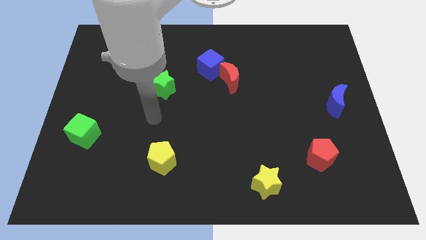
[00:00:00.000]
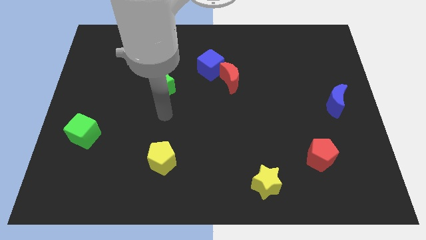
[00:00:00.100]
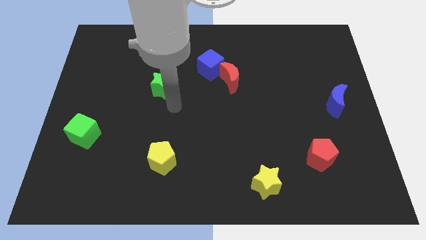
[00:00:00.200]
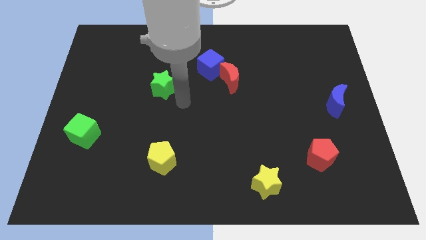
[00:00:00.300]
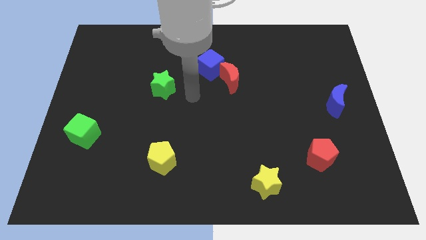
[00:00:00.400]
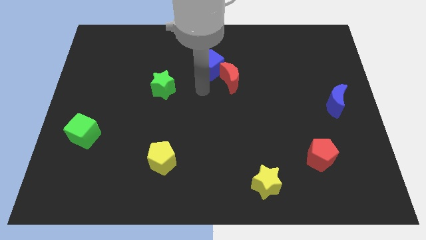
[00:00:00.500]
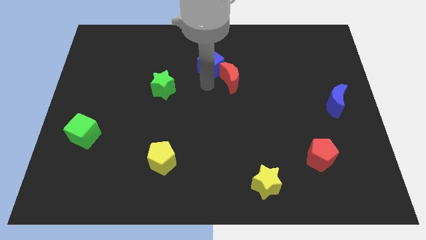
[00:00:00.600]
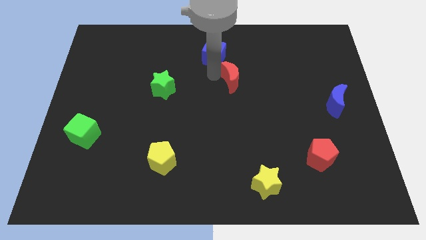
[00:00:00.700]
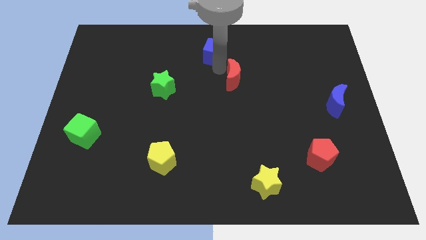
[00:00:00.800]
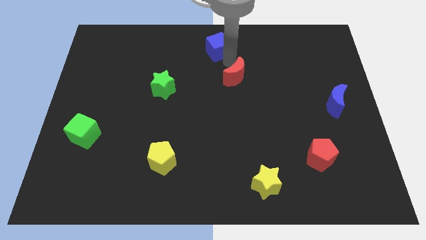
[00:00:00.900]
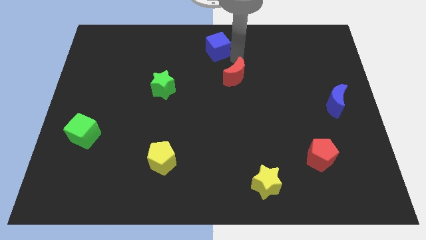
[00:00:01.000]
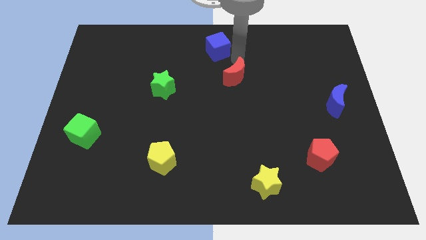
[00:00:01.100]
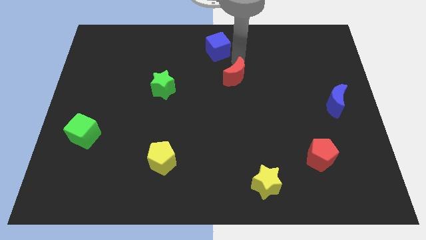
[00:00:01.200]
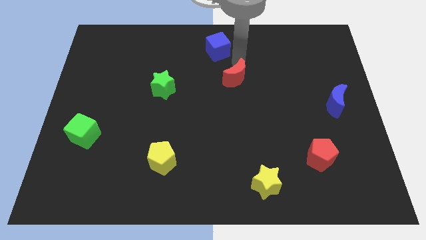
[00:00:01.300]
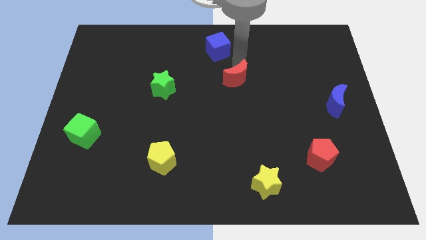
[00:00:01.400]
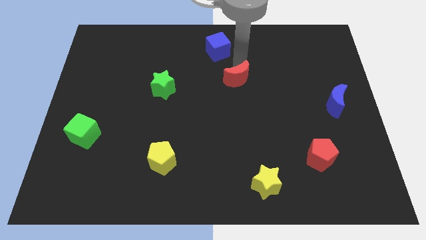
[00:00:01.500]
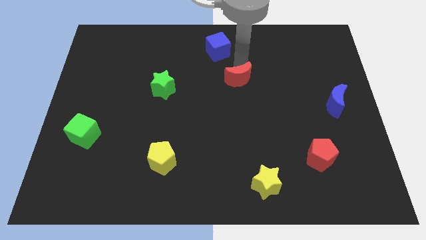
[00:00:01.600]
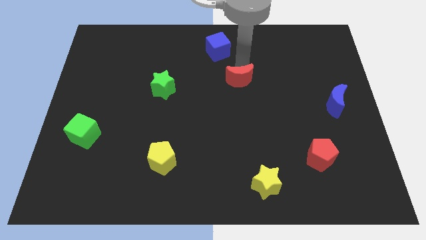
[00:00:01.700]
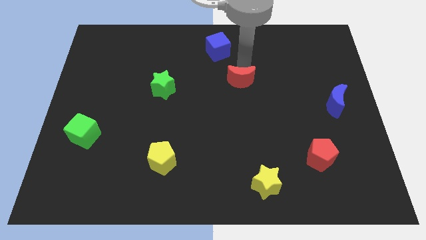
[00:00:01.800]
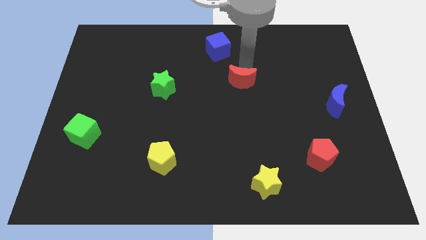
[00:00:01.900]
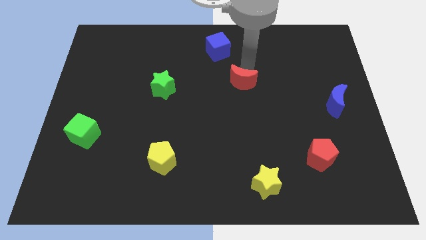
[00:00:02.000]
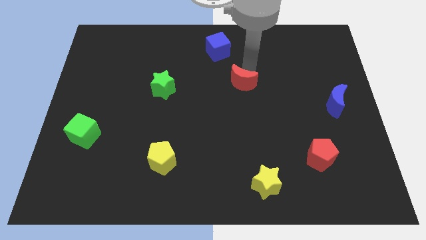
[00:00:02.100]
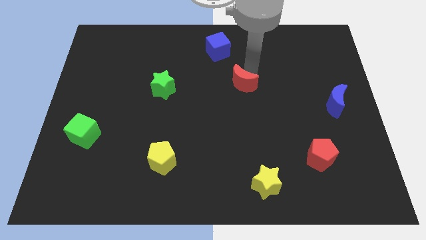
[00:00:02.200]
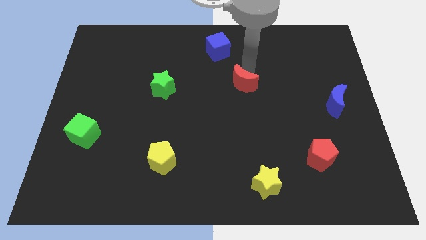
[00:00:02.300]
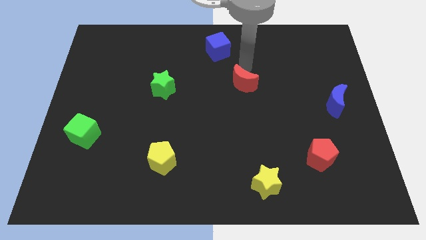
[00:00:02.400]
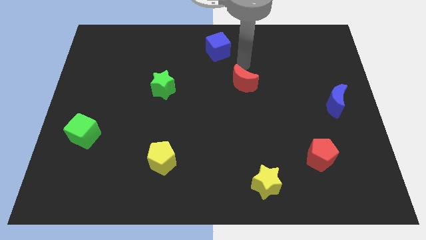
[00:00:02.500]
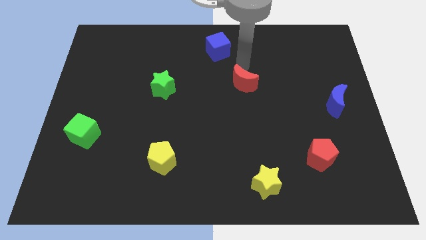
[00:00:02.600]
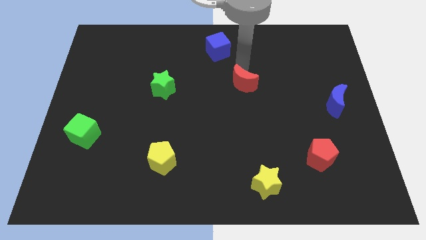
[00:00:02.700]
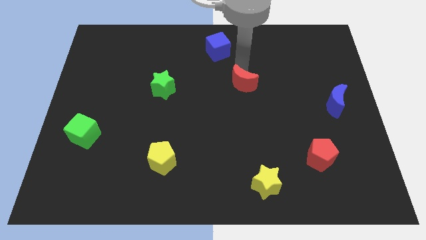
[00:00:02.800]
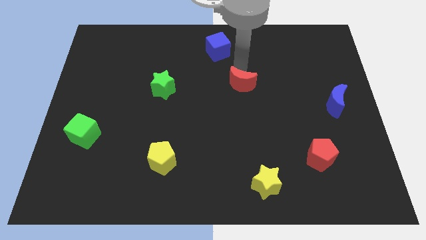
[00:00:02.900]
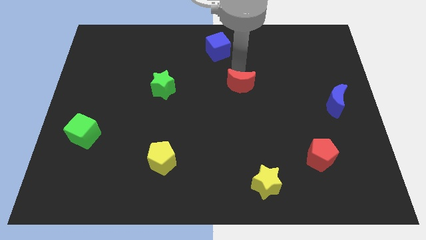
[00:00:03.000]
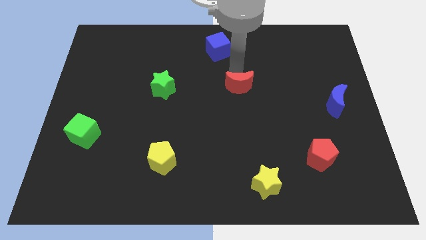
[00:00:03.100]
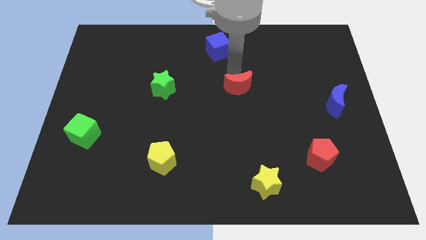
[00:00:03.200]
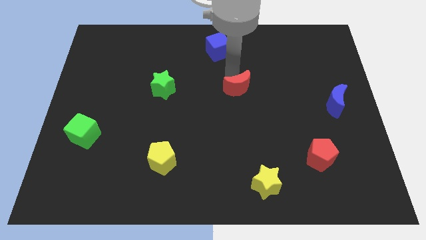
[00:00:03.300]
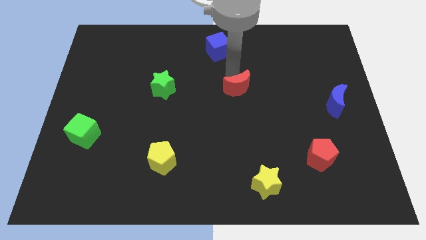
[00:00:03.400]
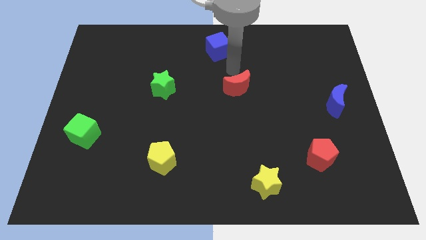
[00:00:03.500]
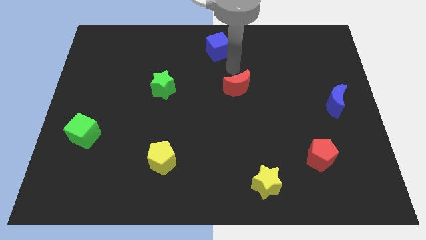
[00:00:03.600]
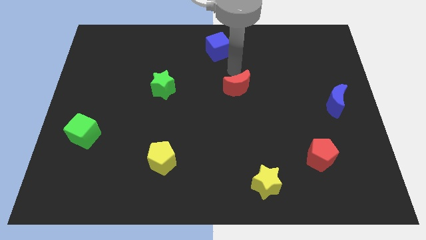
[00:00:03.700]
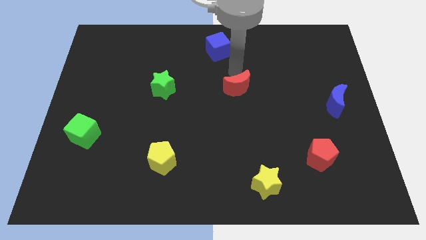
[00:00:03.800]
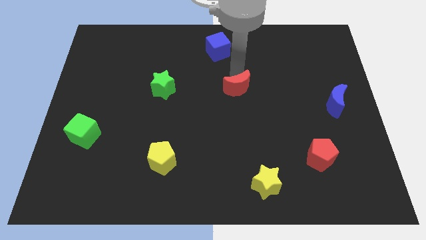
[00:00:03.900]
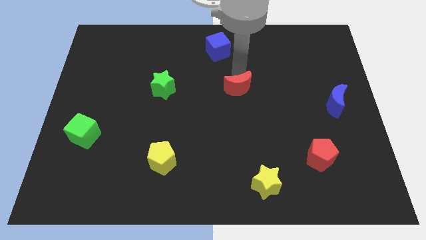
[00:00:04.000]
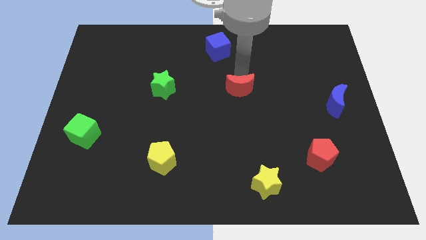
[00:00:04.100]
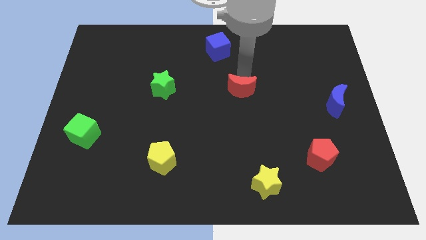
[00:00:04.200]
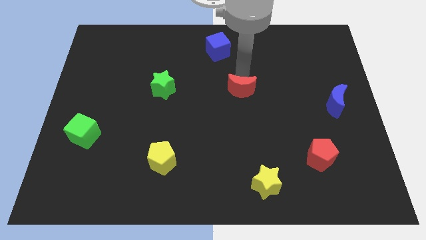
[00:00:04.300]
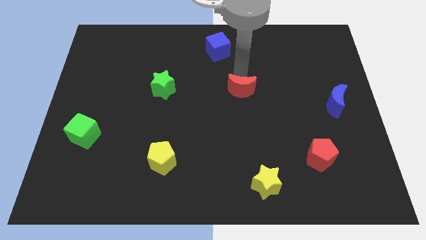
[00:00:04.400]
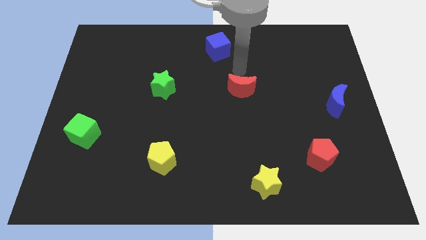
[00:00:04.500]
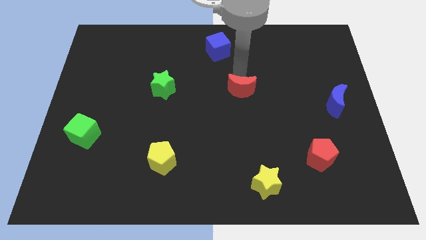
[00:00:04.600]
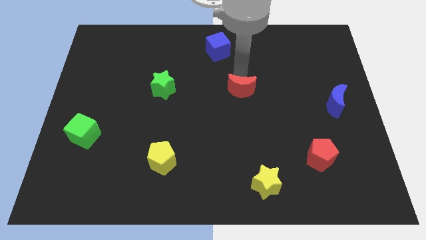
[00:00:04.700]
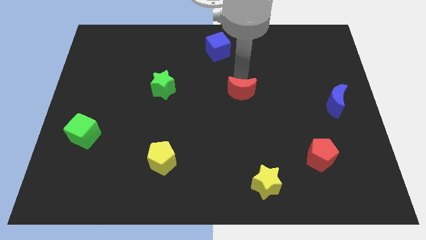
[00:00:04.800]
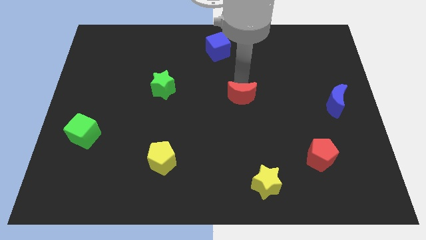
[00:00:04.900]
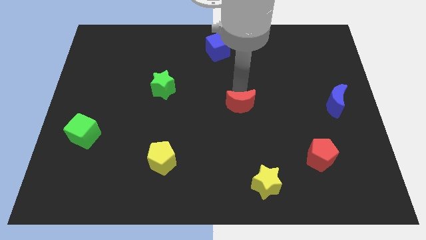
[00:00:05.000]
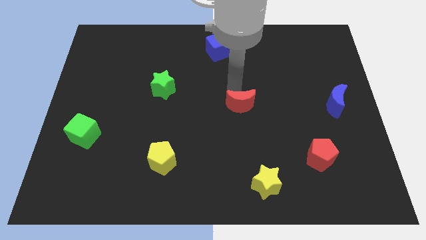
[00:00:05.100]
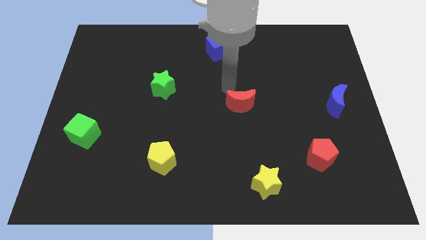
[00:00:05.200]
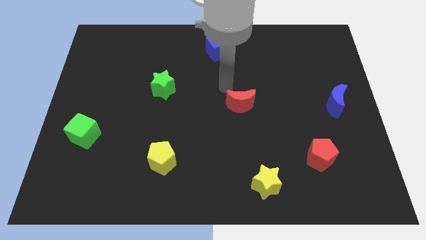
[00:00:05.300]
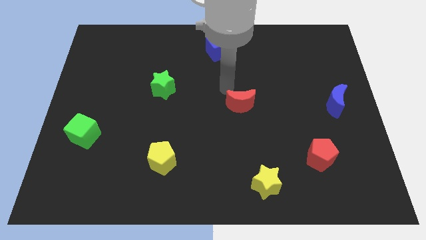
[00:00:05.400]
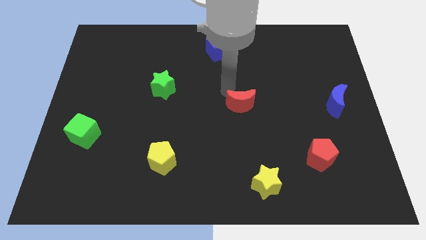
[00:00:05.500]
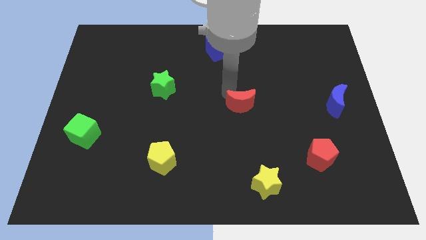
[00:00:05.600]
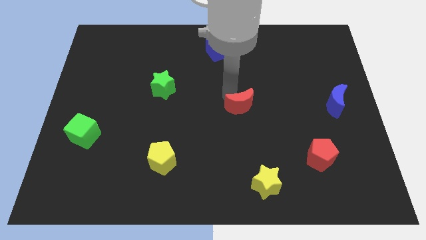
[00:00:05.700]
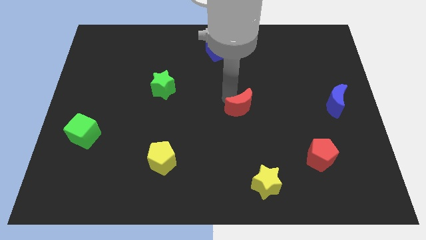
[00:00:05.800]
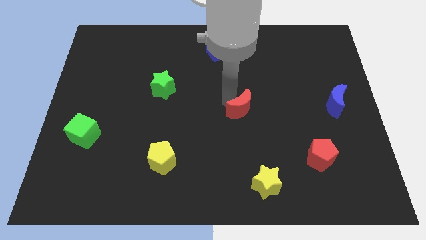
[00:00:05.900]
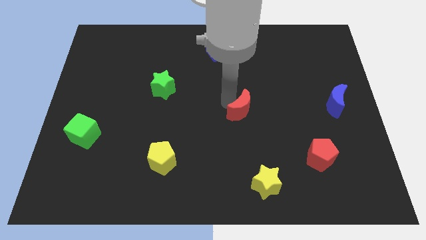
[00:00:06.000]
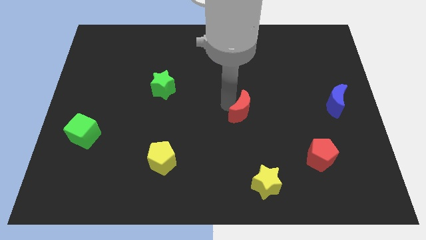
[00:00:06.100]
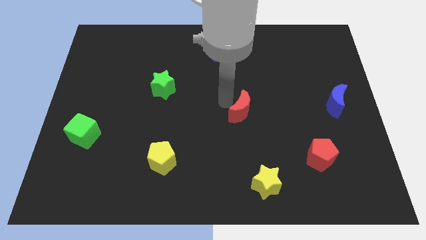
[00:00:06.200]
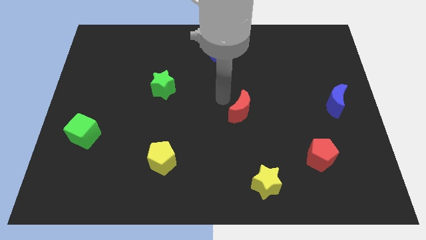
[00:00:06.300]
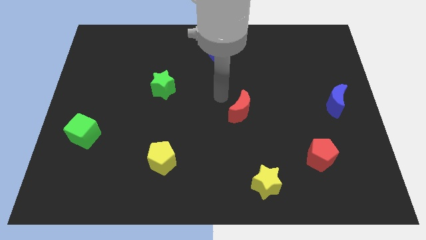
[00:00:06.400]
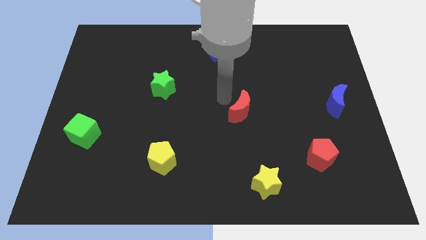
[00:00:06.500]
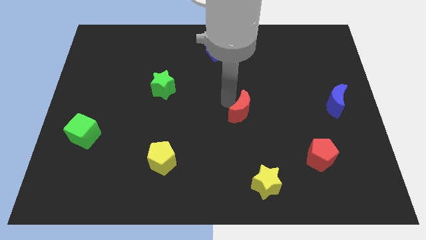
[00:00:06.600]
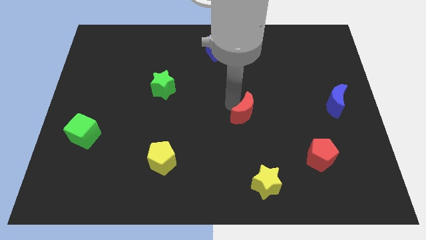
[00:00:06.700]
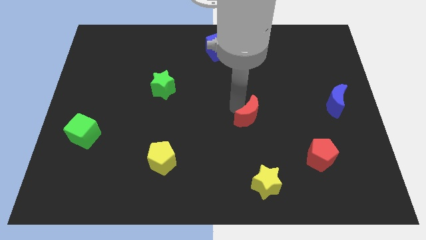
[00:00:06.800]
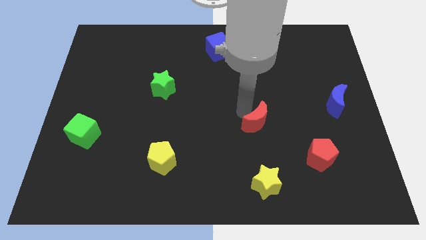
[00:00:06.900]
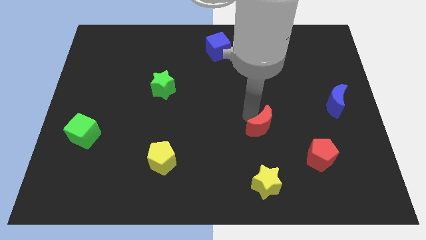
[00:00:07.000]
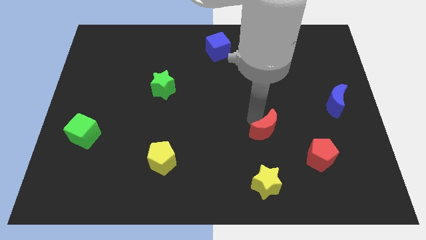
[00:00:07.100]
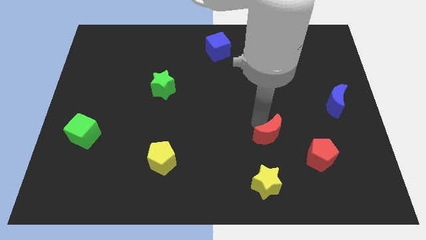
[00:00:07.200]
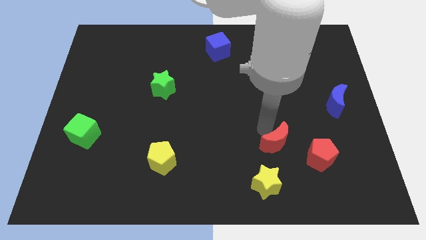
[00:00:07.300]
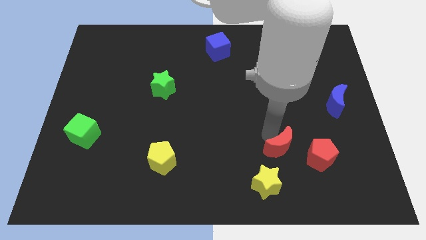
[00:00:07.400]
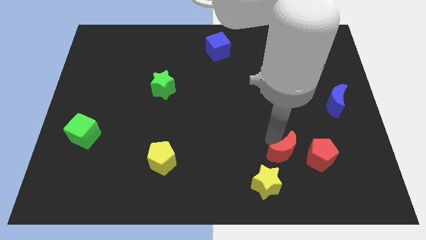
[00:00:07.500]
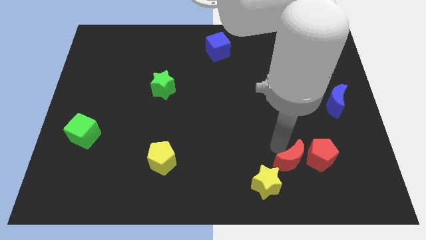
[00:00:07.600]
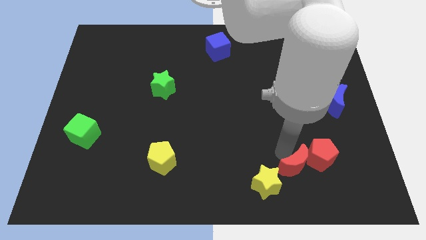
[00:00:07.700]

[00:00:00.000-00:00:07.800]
move the red moon right of the yellow star

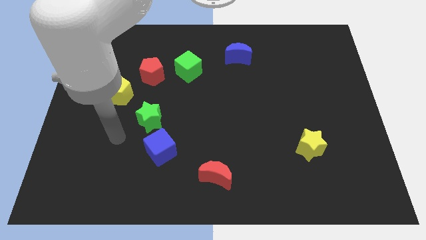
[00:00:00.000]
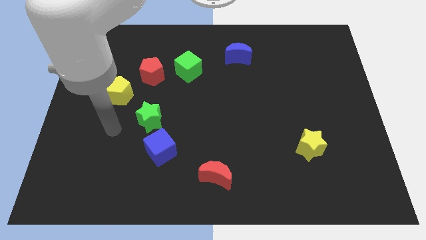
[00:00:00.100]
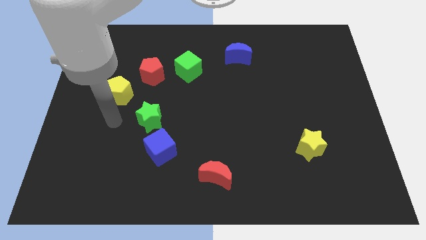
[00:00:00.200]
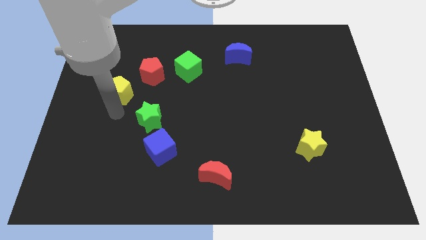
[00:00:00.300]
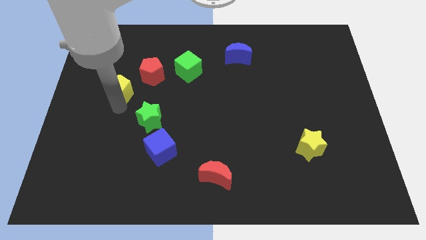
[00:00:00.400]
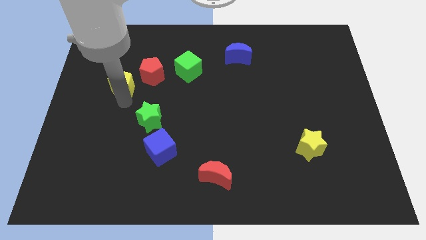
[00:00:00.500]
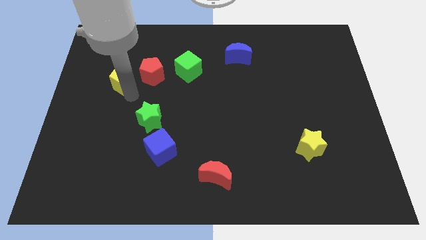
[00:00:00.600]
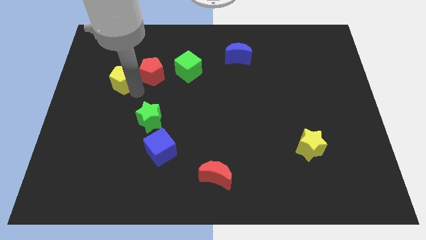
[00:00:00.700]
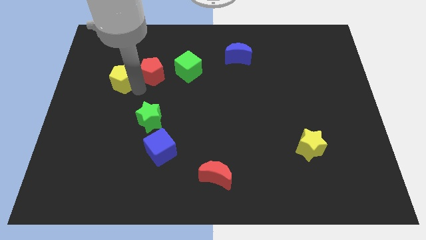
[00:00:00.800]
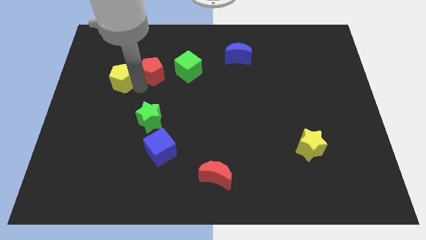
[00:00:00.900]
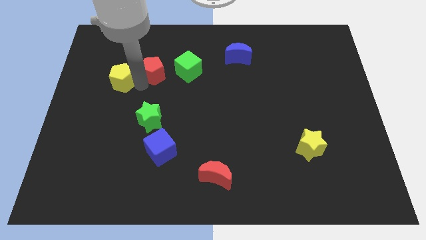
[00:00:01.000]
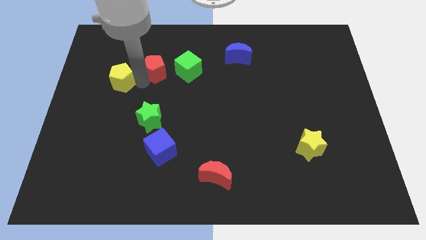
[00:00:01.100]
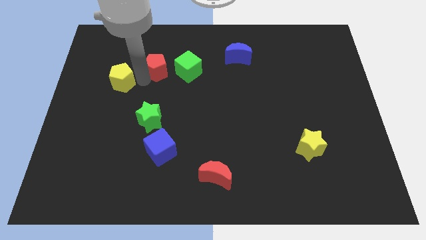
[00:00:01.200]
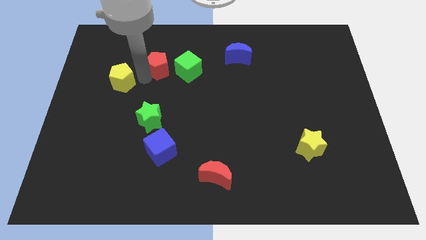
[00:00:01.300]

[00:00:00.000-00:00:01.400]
move the red pentagon diagonally up and to the left of the green cube
